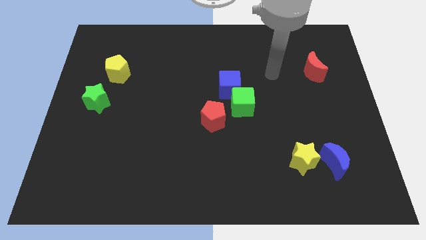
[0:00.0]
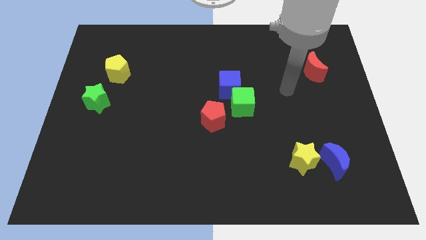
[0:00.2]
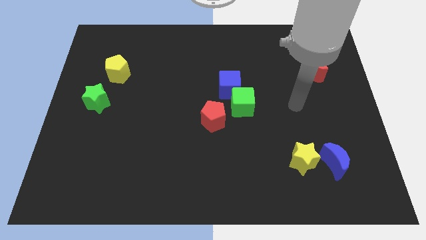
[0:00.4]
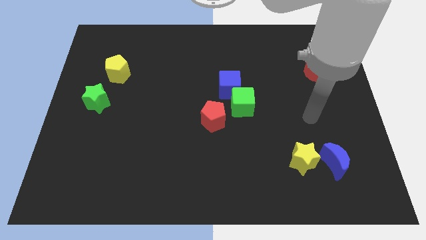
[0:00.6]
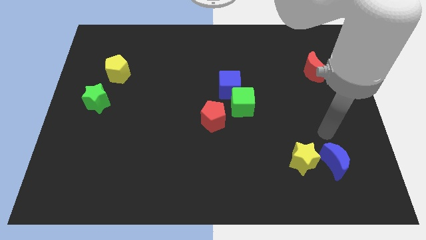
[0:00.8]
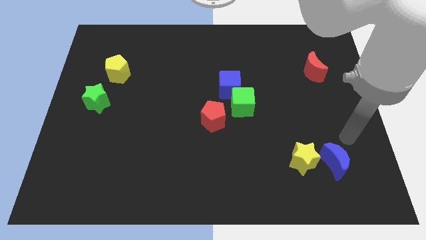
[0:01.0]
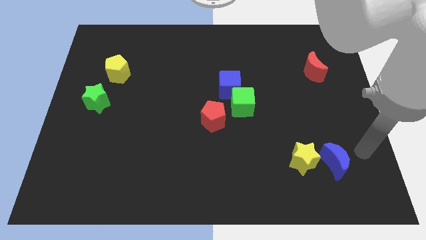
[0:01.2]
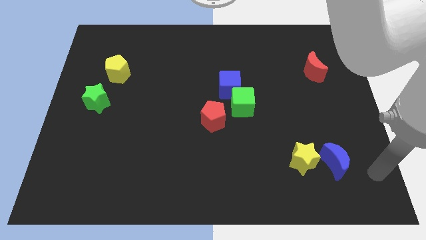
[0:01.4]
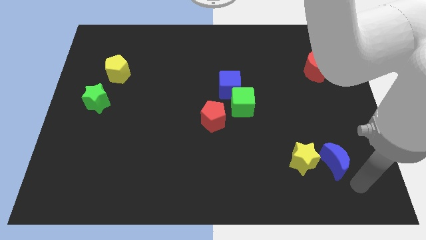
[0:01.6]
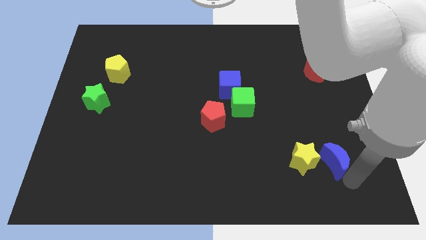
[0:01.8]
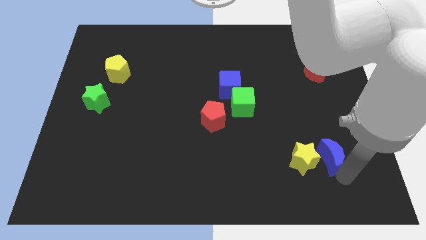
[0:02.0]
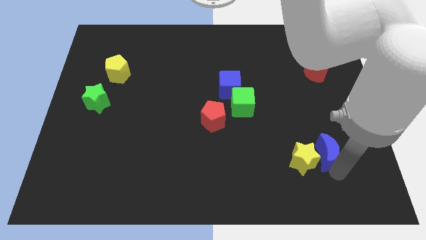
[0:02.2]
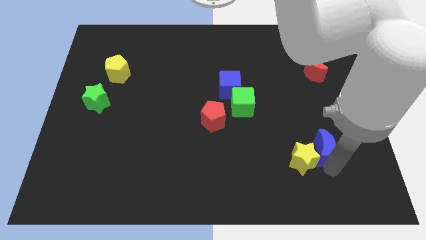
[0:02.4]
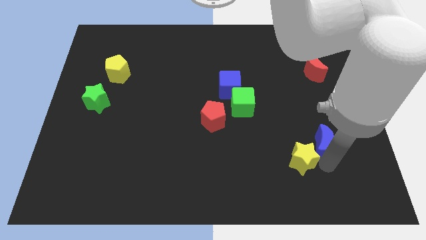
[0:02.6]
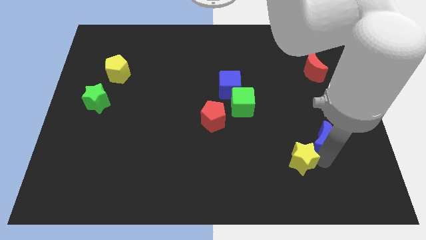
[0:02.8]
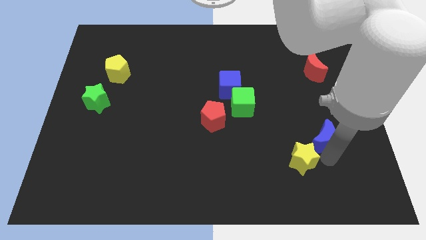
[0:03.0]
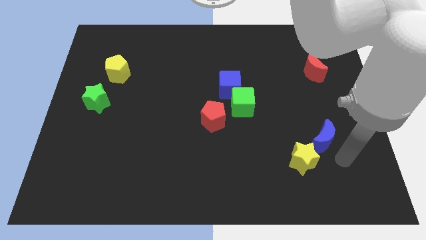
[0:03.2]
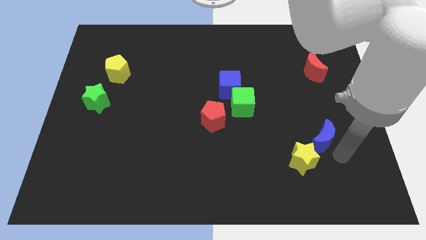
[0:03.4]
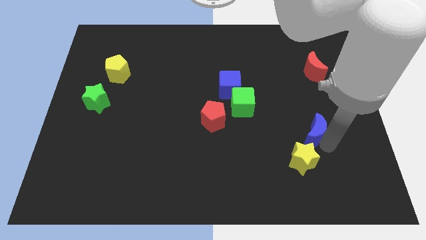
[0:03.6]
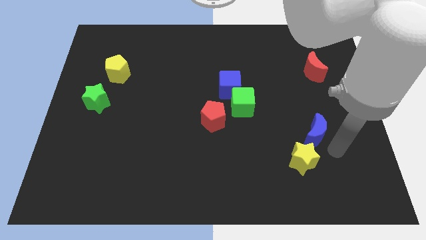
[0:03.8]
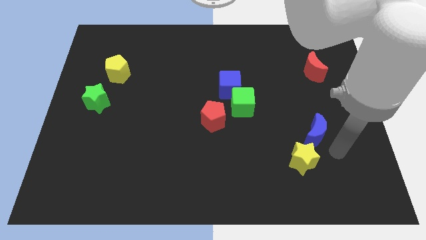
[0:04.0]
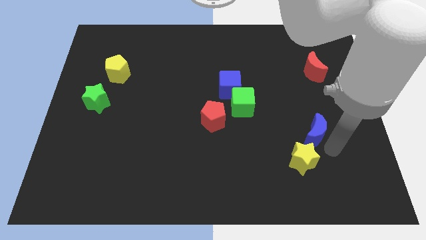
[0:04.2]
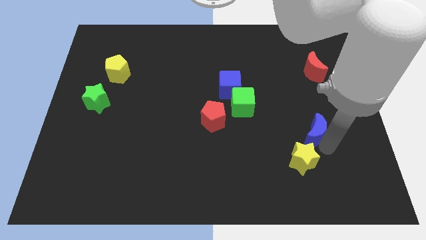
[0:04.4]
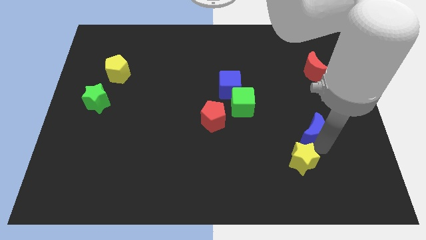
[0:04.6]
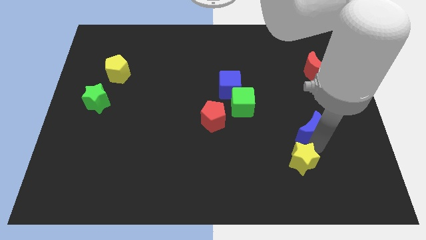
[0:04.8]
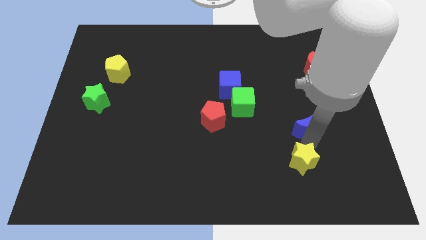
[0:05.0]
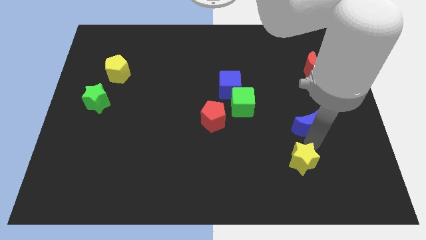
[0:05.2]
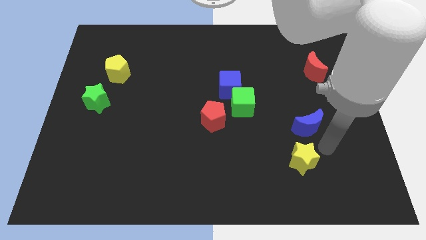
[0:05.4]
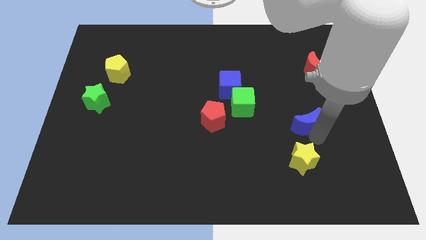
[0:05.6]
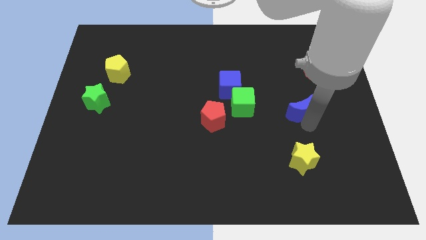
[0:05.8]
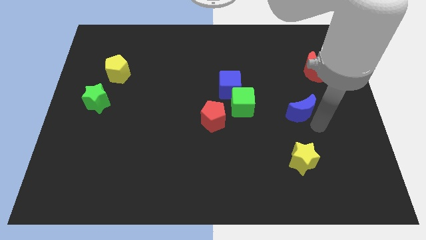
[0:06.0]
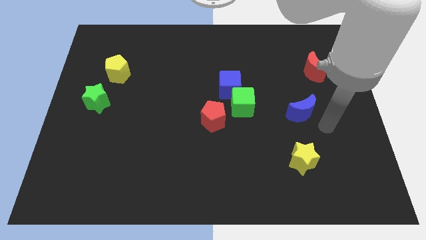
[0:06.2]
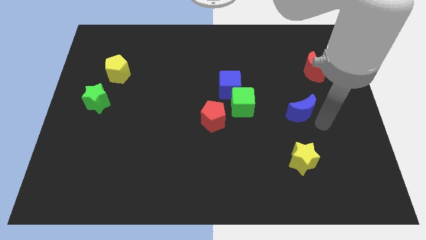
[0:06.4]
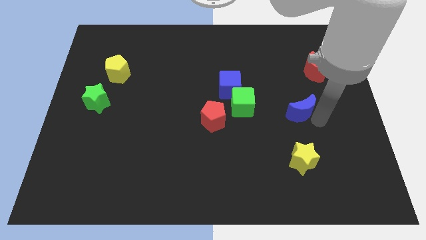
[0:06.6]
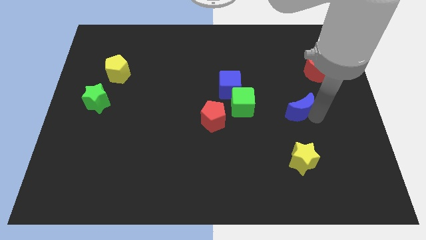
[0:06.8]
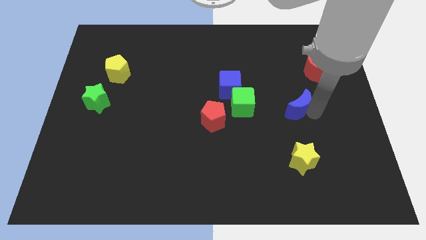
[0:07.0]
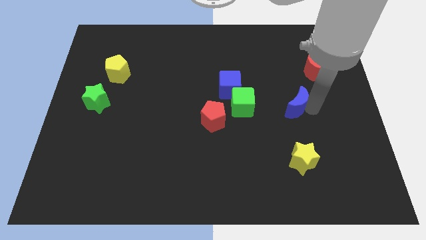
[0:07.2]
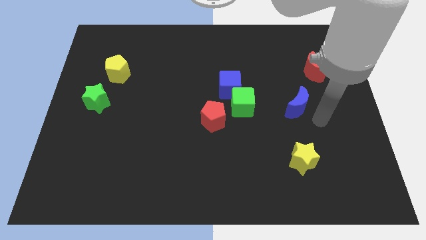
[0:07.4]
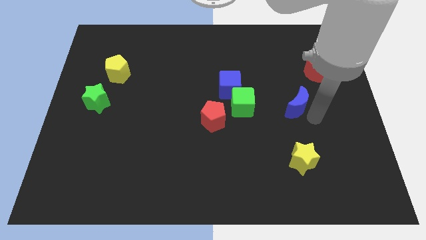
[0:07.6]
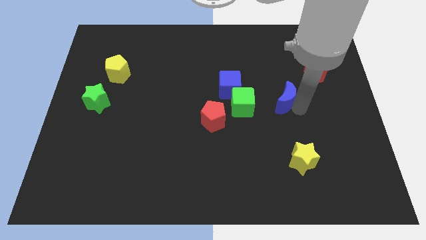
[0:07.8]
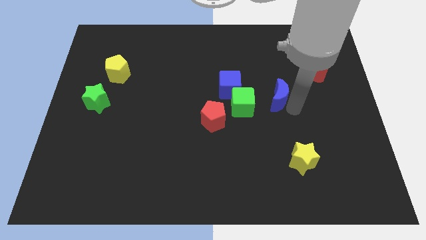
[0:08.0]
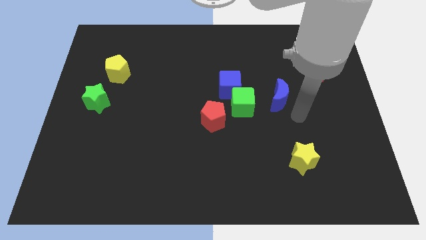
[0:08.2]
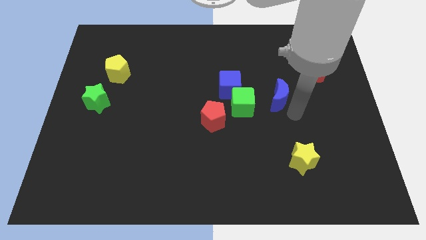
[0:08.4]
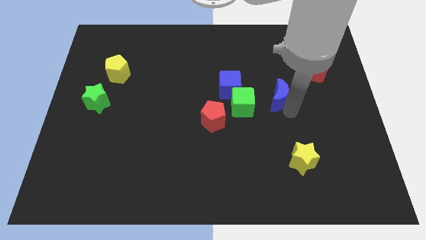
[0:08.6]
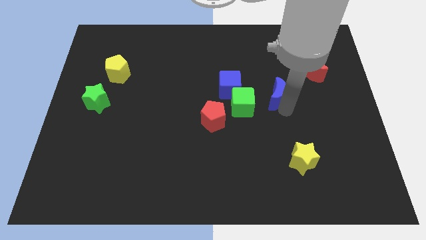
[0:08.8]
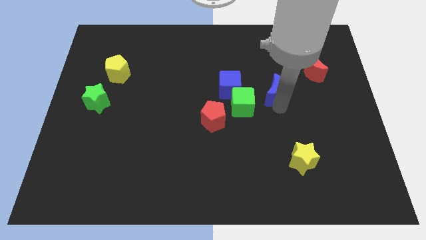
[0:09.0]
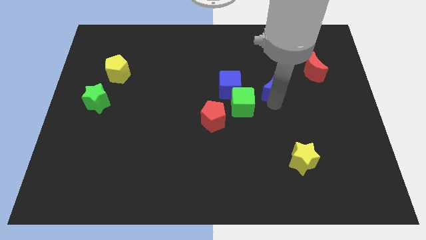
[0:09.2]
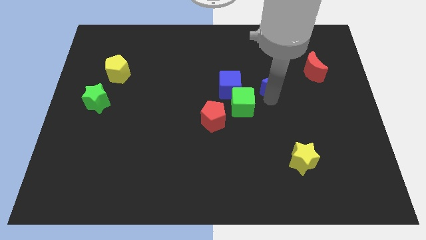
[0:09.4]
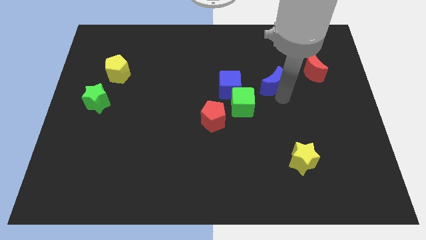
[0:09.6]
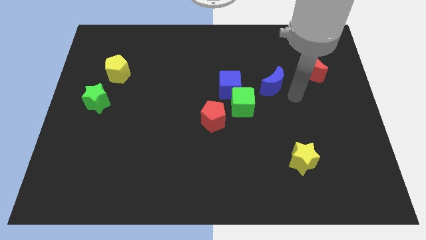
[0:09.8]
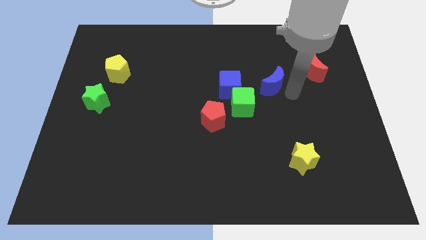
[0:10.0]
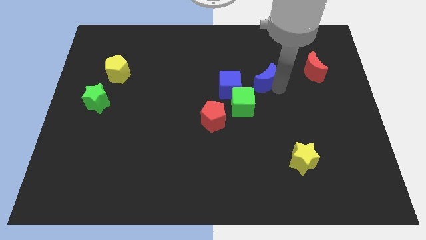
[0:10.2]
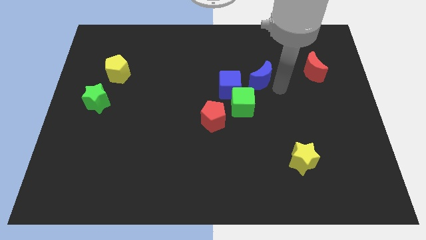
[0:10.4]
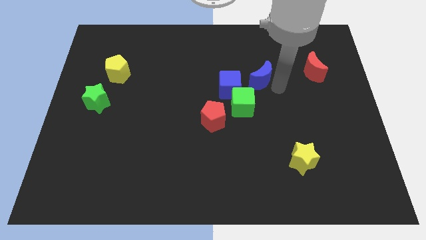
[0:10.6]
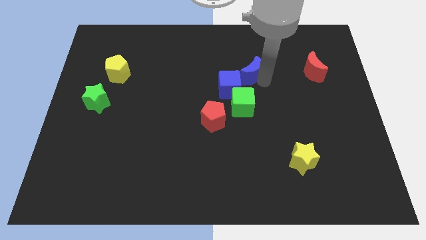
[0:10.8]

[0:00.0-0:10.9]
push the blue moon to the middle

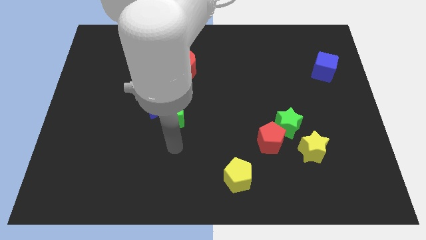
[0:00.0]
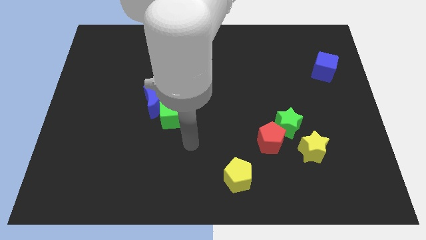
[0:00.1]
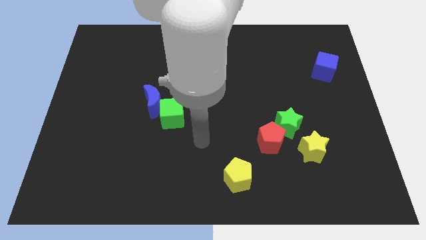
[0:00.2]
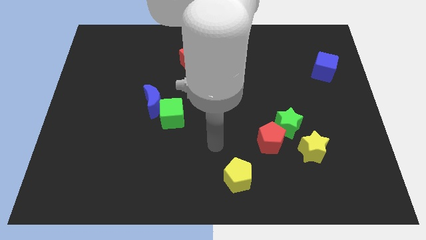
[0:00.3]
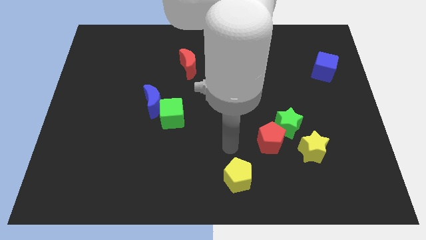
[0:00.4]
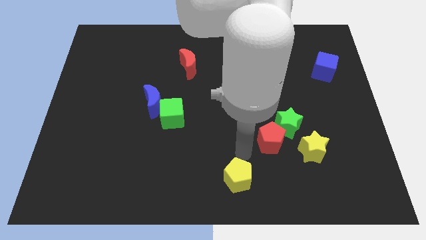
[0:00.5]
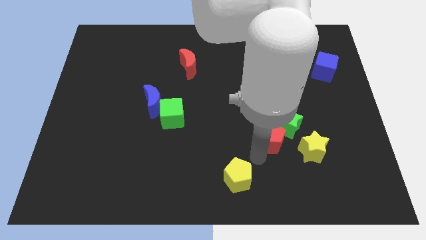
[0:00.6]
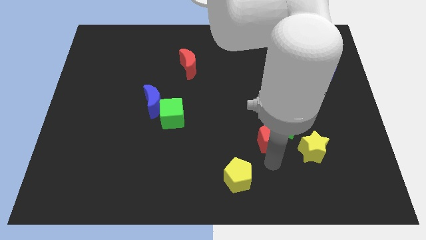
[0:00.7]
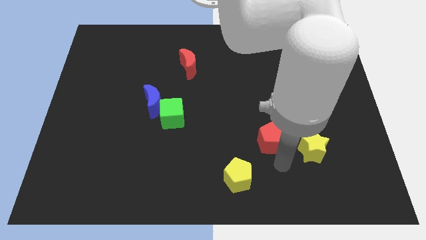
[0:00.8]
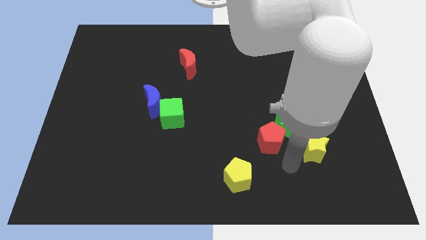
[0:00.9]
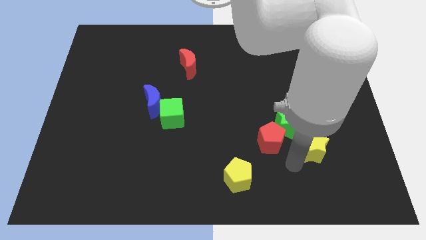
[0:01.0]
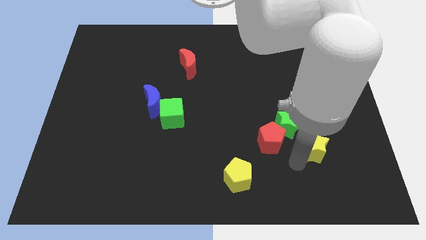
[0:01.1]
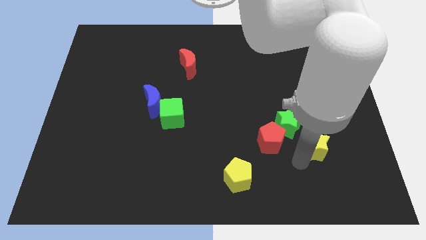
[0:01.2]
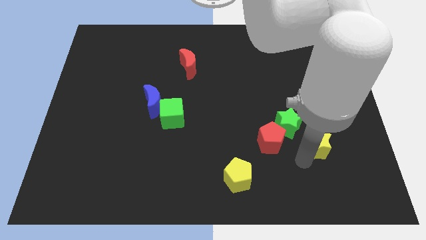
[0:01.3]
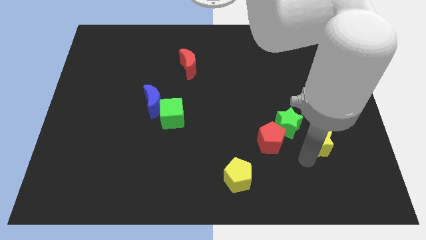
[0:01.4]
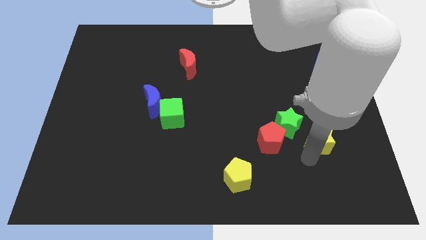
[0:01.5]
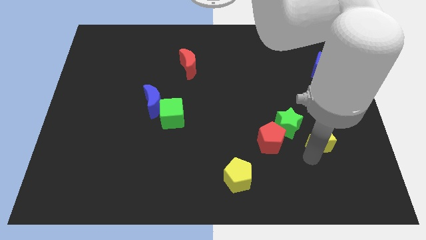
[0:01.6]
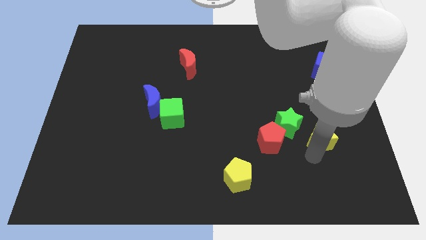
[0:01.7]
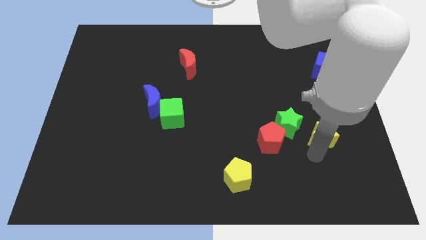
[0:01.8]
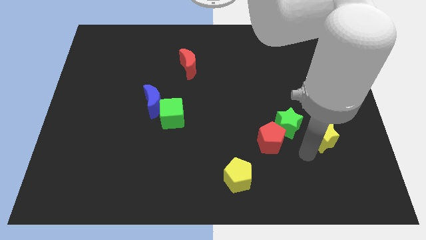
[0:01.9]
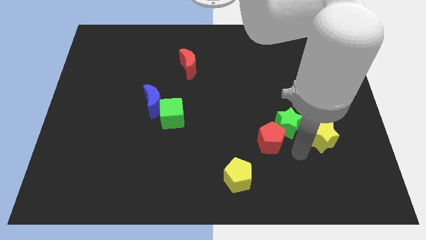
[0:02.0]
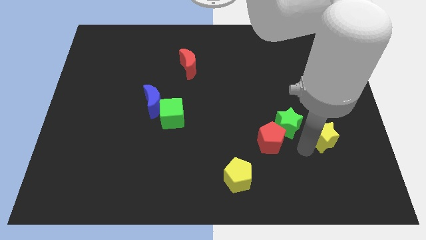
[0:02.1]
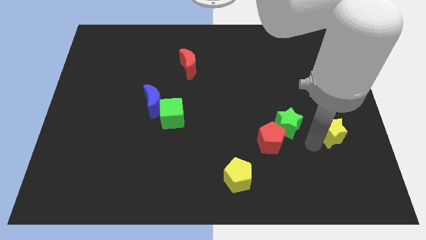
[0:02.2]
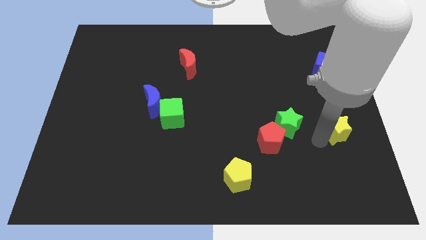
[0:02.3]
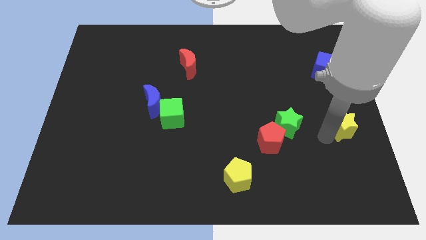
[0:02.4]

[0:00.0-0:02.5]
slide the yellow star to the center right
